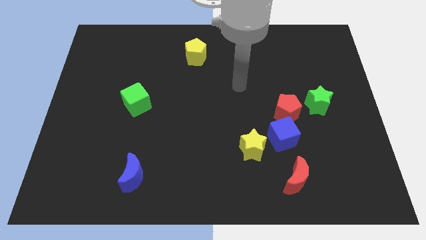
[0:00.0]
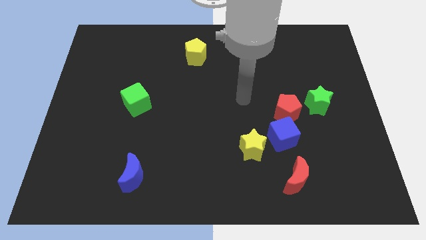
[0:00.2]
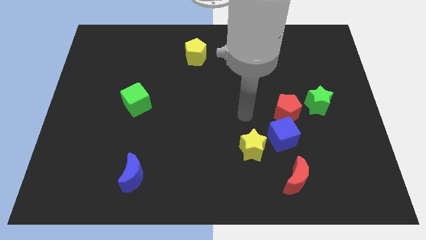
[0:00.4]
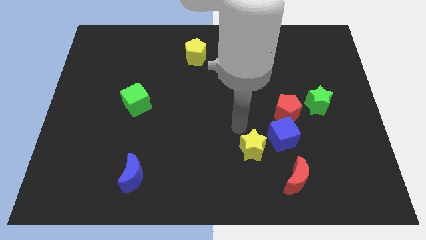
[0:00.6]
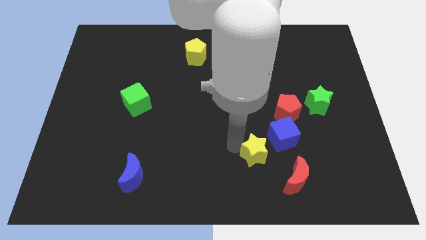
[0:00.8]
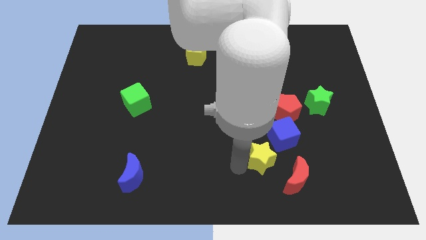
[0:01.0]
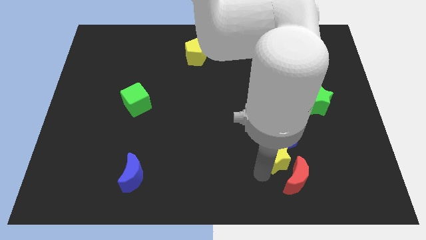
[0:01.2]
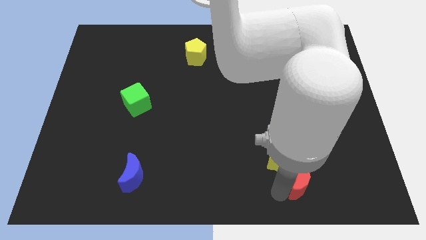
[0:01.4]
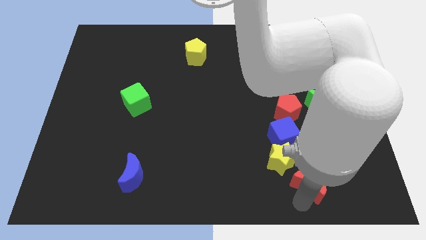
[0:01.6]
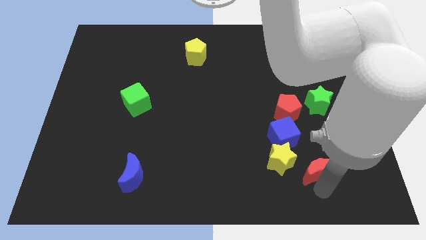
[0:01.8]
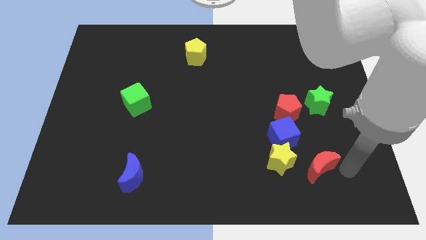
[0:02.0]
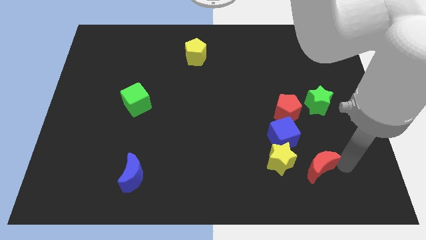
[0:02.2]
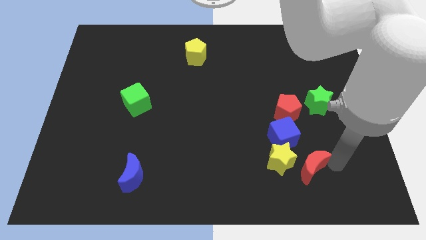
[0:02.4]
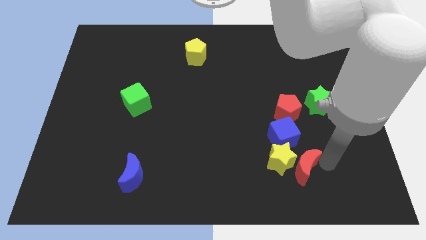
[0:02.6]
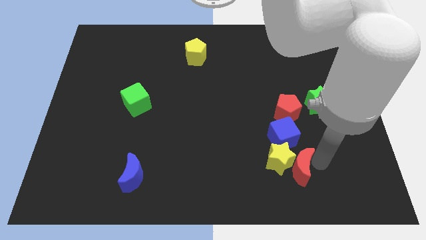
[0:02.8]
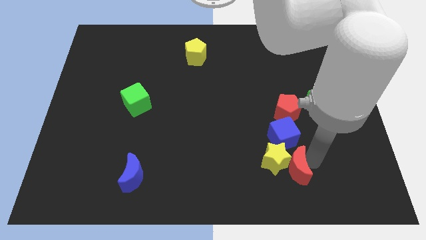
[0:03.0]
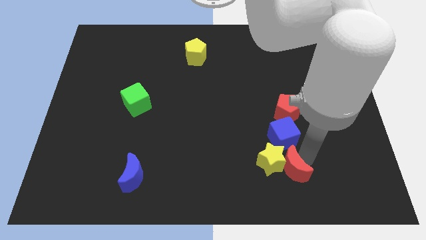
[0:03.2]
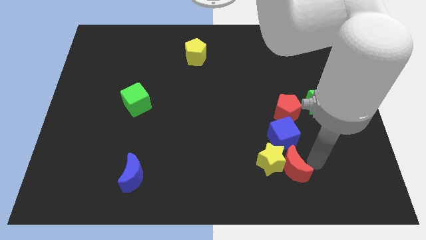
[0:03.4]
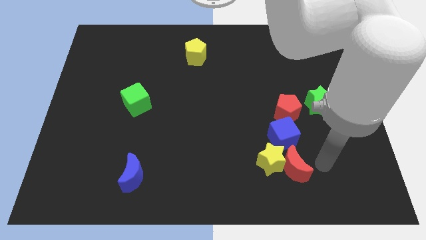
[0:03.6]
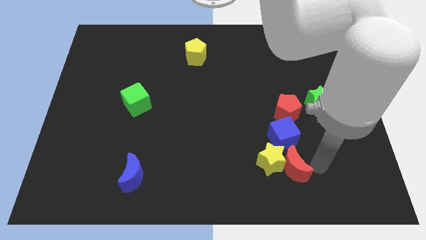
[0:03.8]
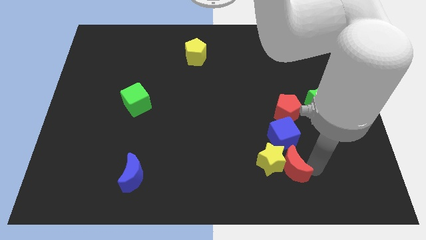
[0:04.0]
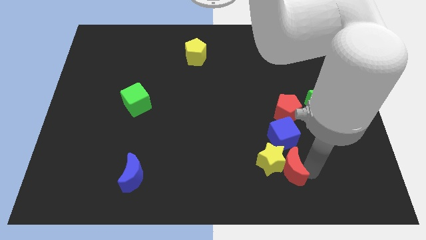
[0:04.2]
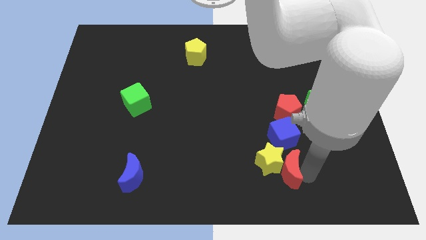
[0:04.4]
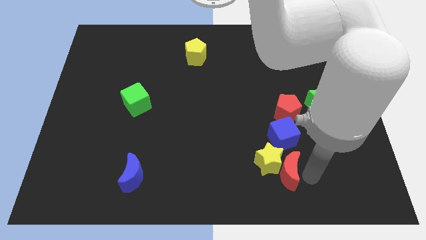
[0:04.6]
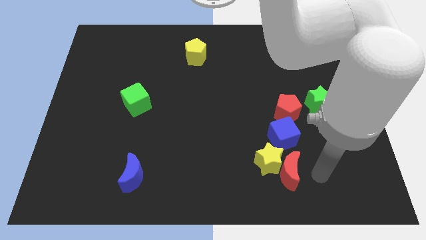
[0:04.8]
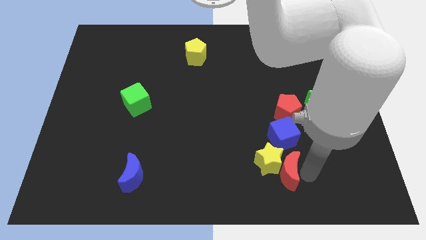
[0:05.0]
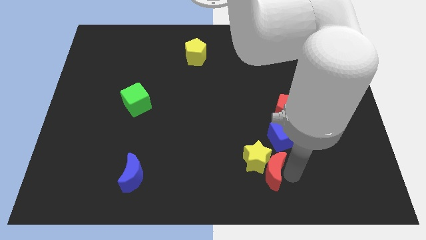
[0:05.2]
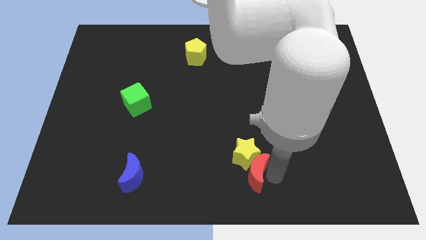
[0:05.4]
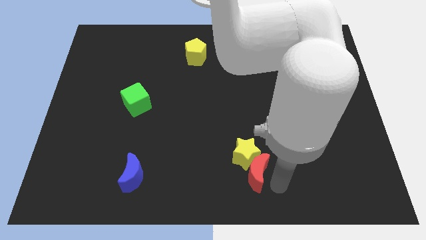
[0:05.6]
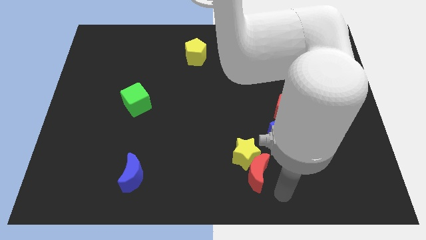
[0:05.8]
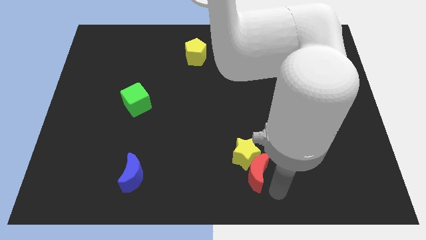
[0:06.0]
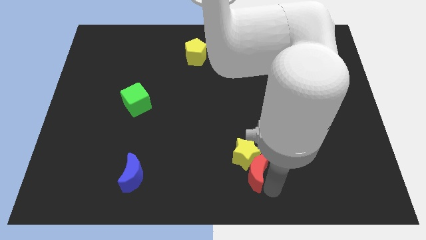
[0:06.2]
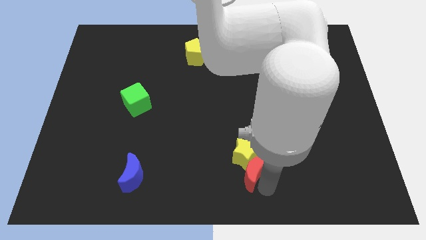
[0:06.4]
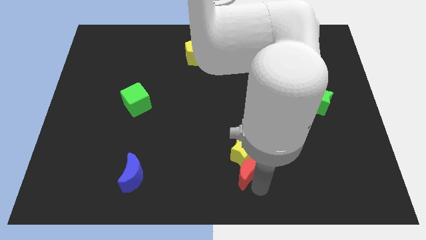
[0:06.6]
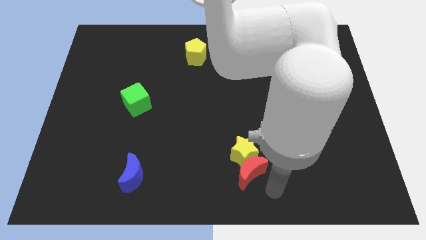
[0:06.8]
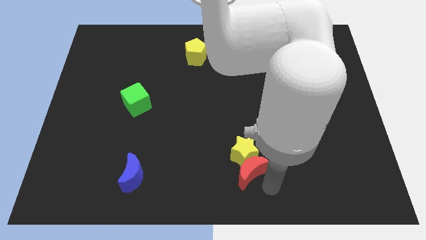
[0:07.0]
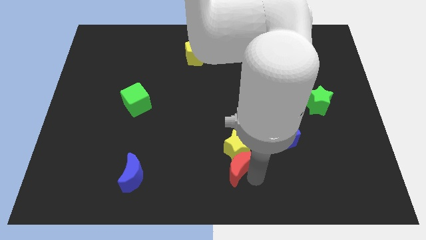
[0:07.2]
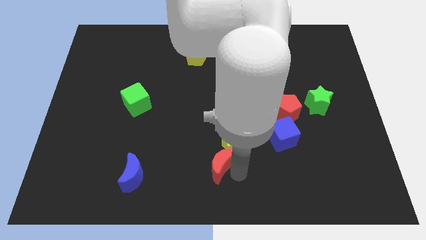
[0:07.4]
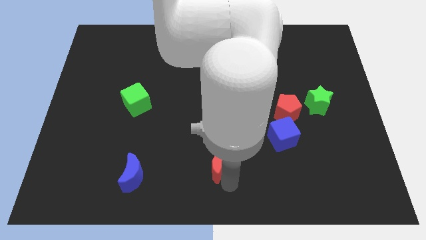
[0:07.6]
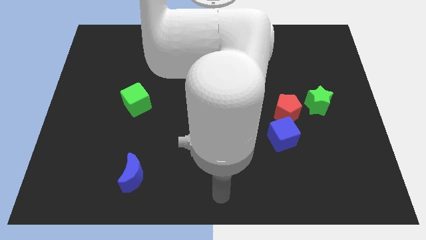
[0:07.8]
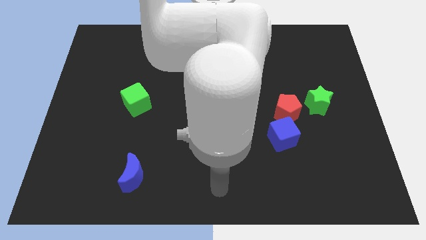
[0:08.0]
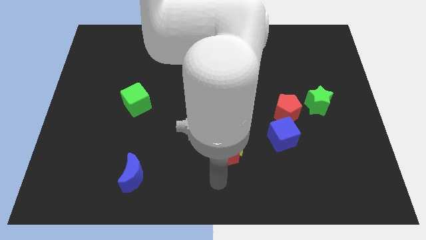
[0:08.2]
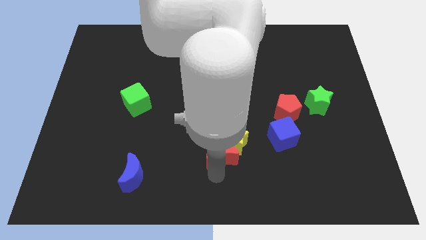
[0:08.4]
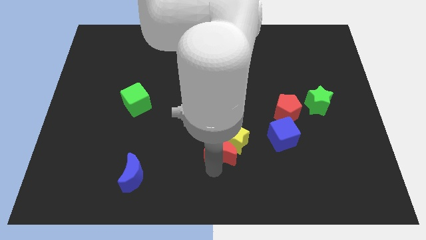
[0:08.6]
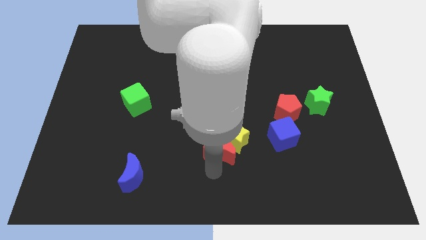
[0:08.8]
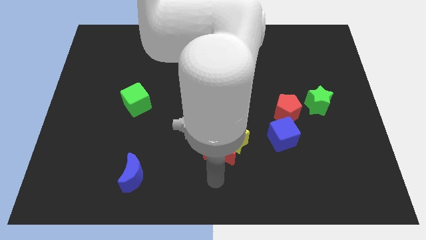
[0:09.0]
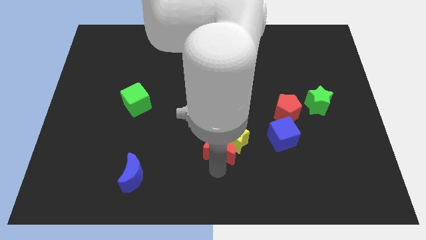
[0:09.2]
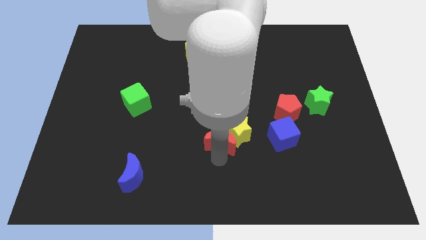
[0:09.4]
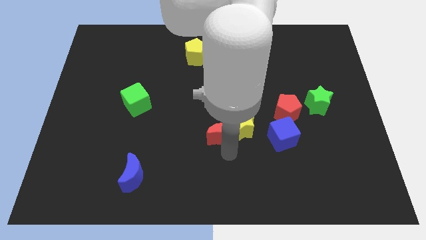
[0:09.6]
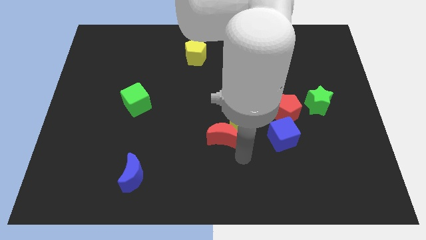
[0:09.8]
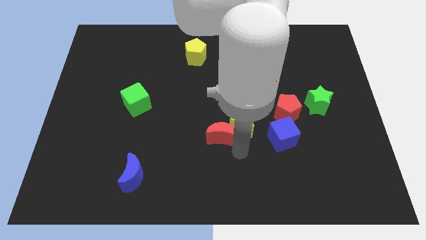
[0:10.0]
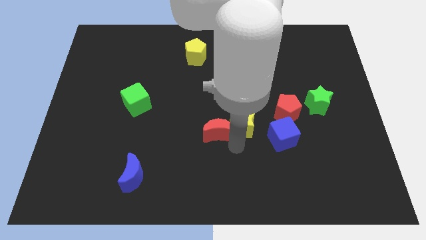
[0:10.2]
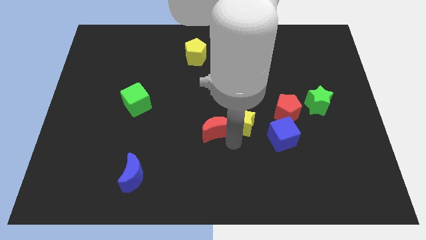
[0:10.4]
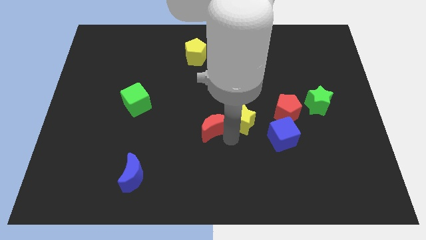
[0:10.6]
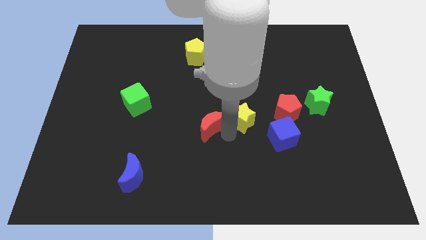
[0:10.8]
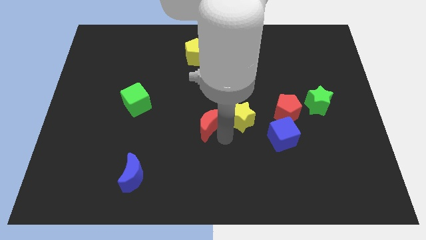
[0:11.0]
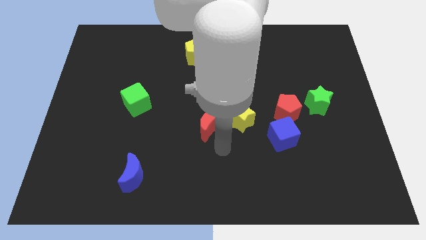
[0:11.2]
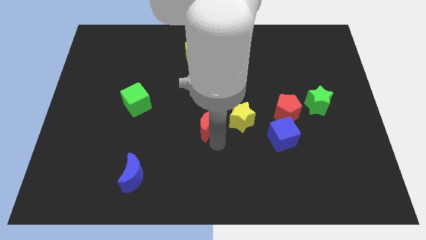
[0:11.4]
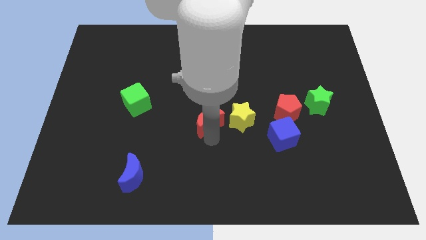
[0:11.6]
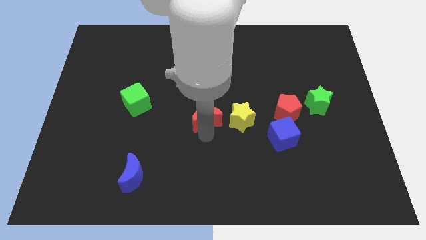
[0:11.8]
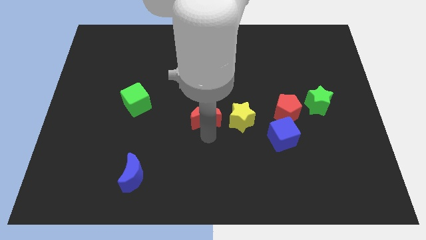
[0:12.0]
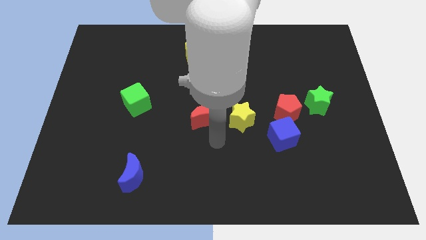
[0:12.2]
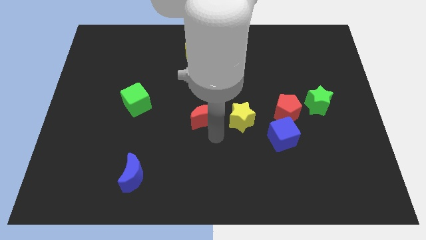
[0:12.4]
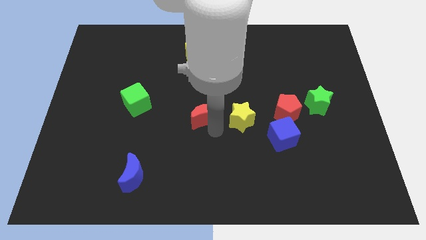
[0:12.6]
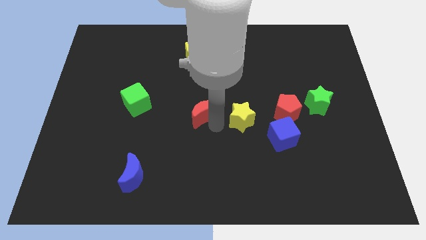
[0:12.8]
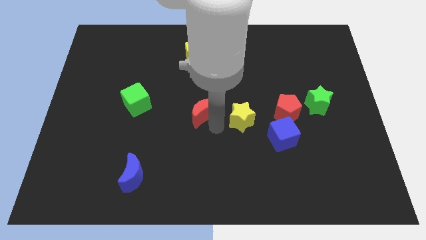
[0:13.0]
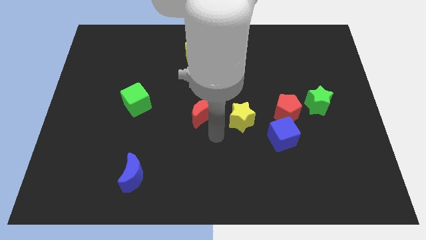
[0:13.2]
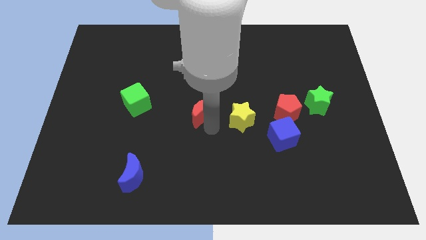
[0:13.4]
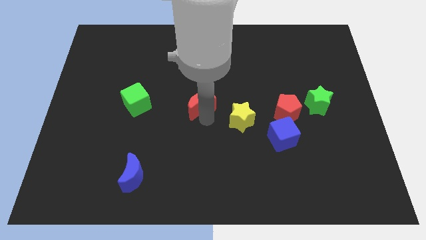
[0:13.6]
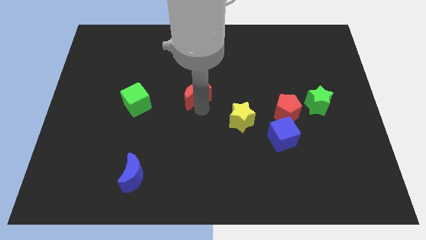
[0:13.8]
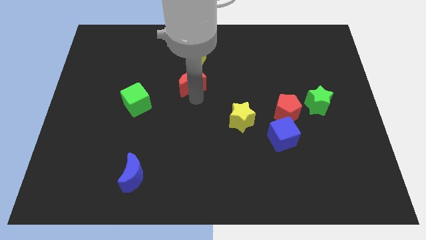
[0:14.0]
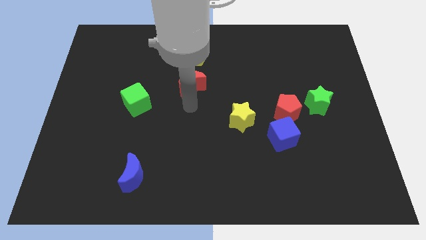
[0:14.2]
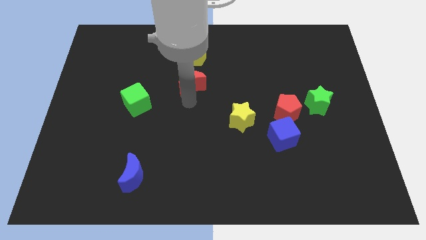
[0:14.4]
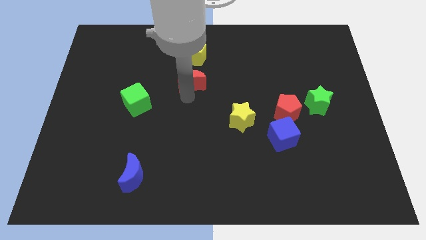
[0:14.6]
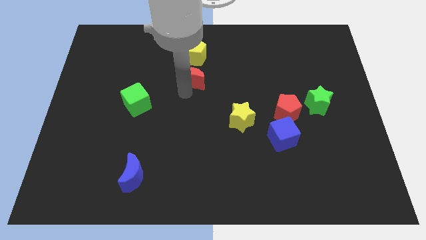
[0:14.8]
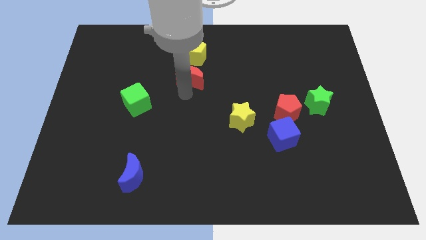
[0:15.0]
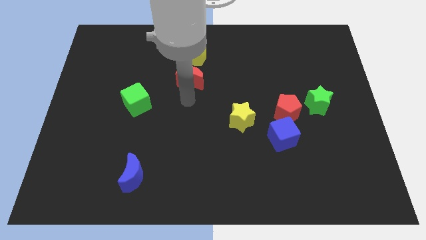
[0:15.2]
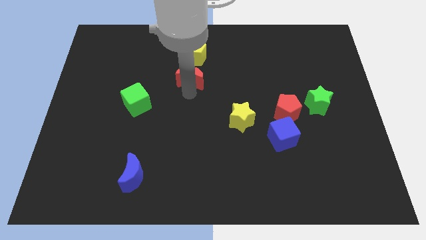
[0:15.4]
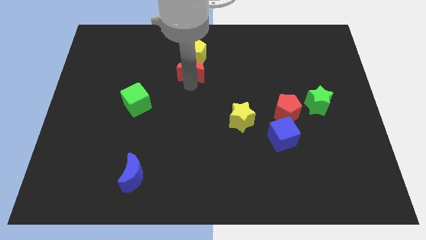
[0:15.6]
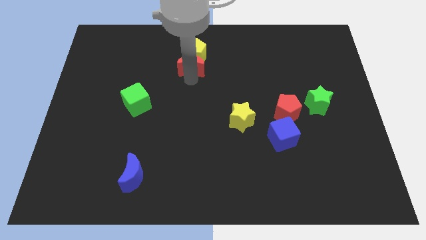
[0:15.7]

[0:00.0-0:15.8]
slide the red moon next to the yellow pentagon
